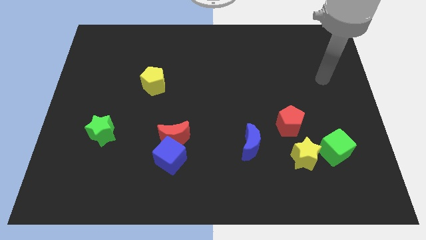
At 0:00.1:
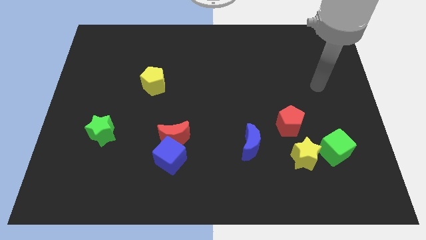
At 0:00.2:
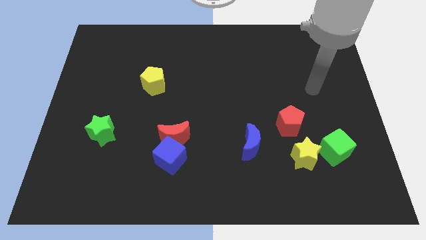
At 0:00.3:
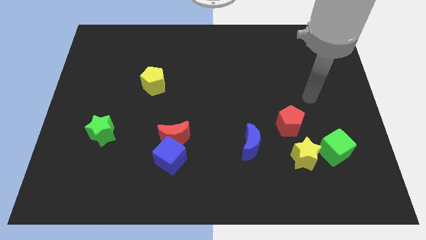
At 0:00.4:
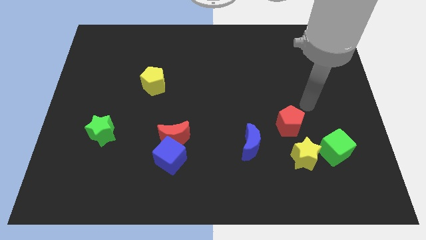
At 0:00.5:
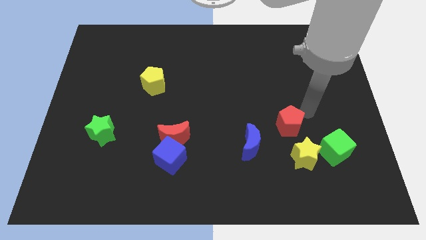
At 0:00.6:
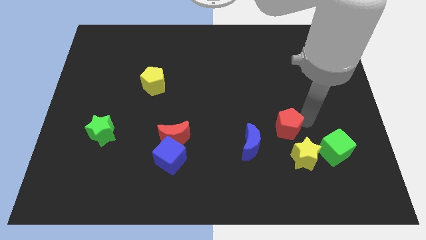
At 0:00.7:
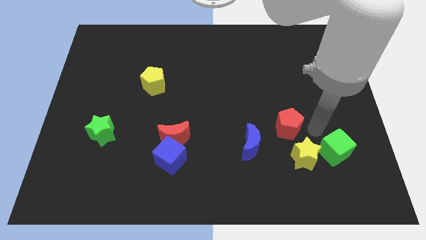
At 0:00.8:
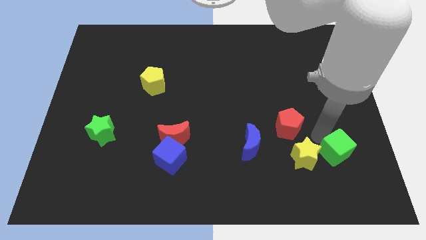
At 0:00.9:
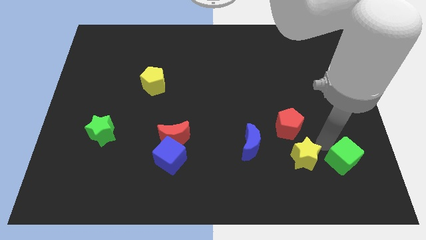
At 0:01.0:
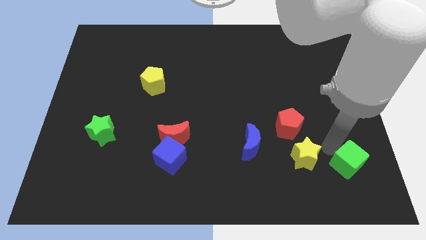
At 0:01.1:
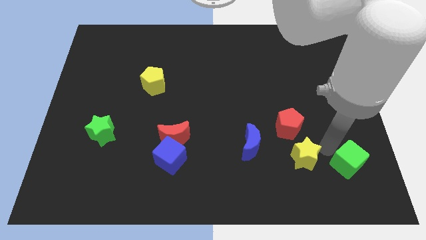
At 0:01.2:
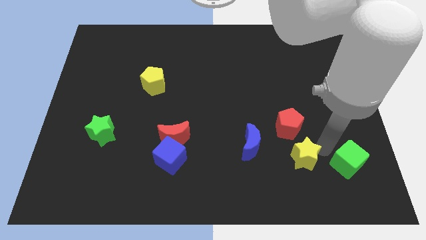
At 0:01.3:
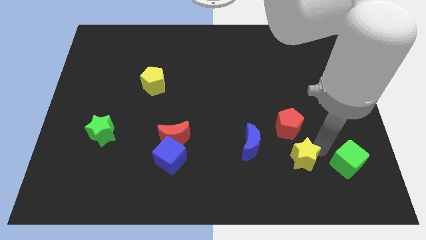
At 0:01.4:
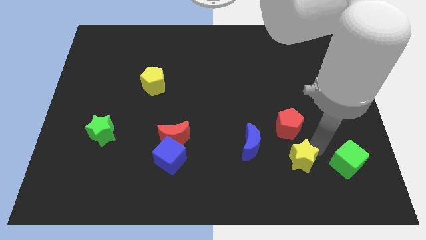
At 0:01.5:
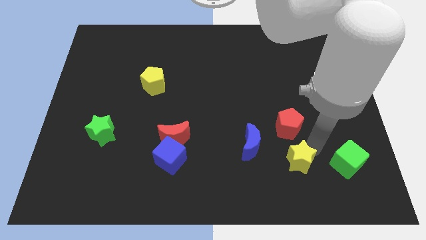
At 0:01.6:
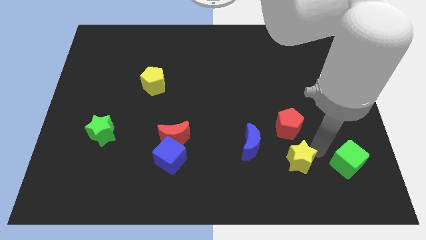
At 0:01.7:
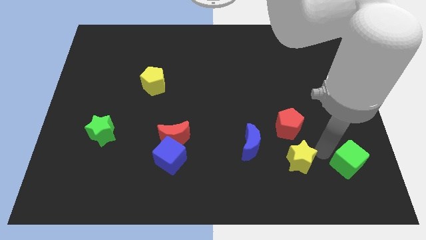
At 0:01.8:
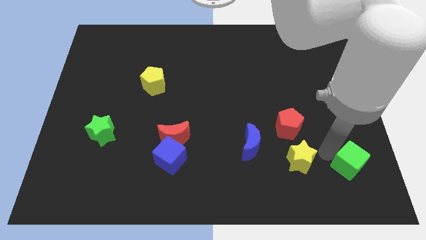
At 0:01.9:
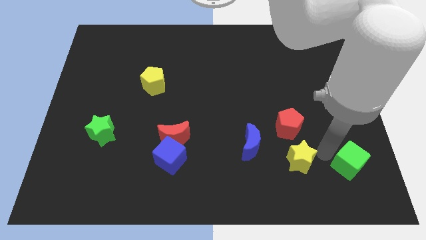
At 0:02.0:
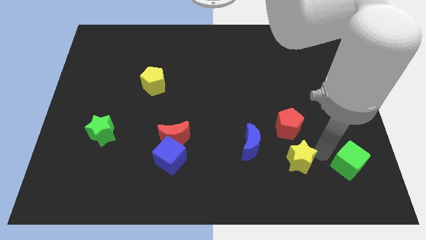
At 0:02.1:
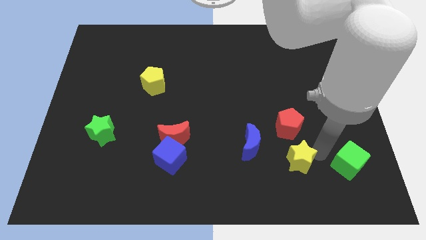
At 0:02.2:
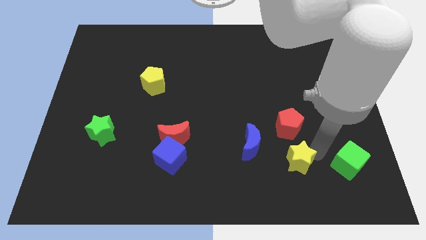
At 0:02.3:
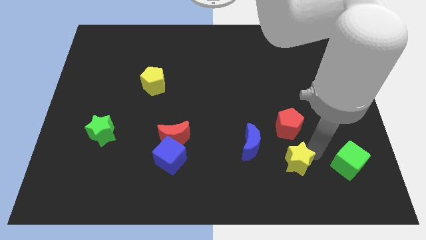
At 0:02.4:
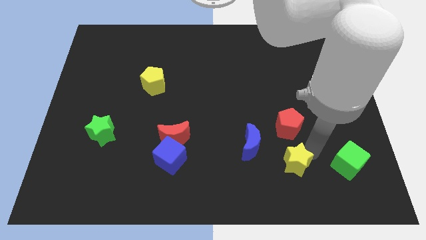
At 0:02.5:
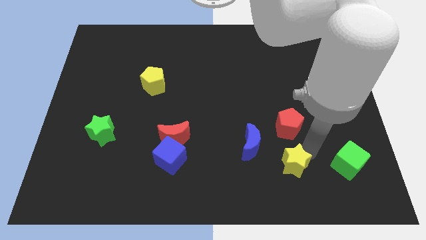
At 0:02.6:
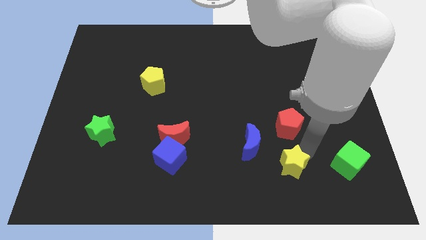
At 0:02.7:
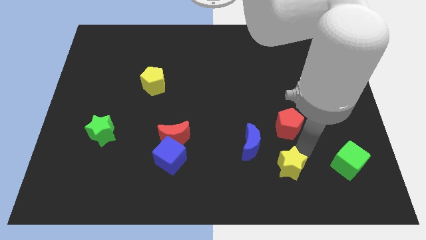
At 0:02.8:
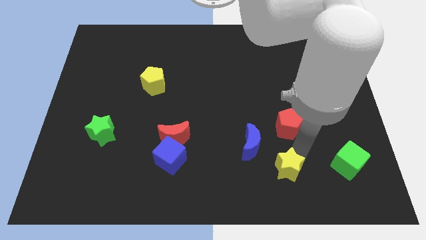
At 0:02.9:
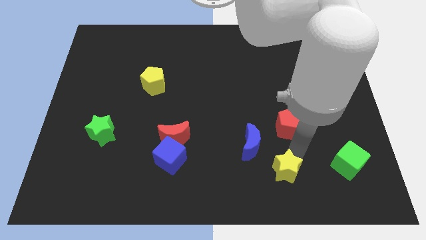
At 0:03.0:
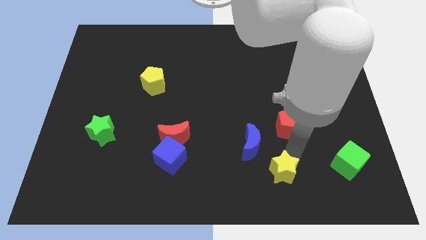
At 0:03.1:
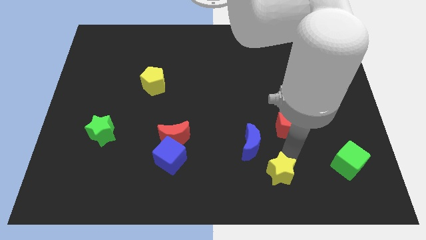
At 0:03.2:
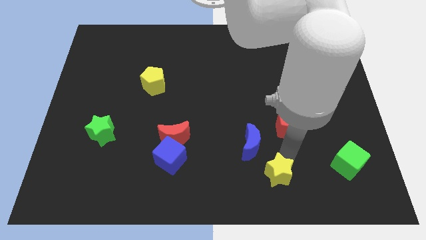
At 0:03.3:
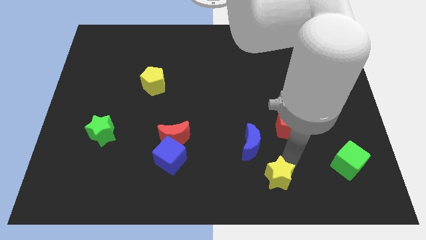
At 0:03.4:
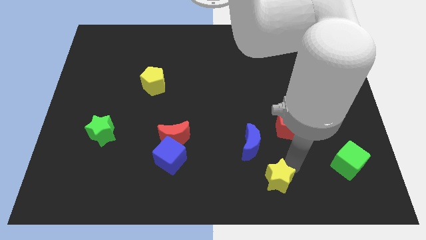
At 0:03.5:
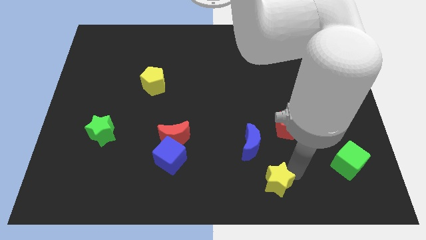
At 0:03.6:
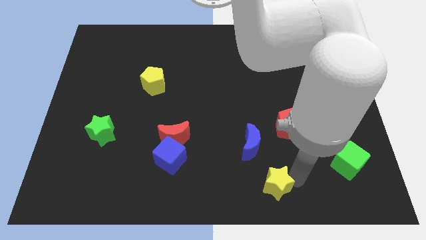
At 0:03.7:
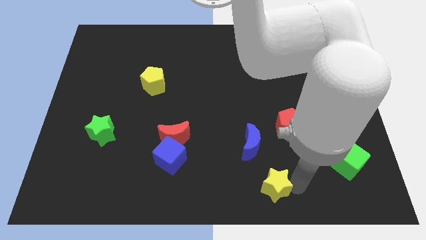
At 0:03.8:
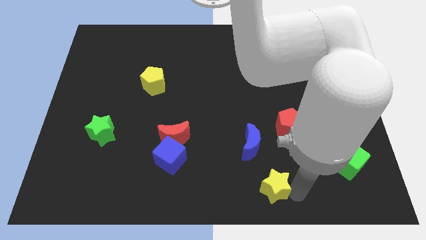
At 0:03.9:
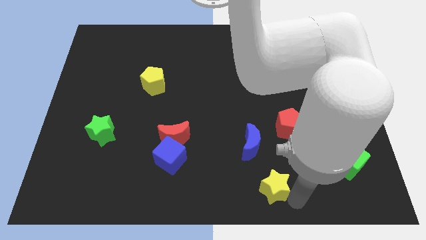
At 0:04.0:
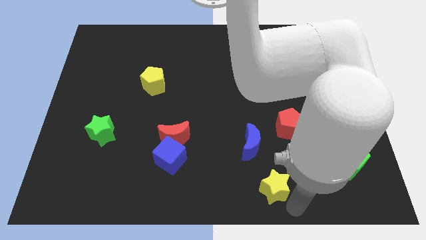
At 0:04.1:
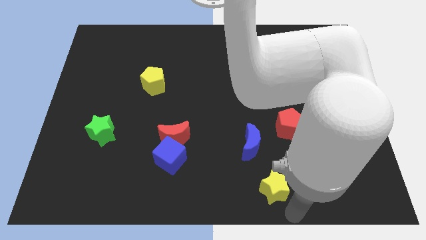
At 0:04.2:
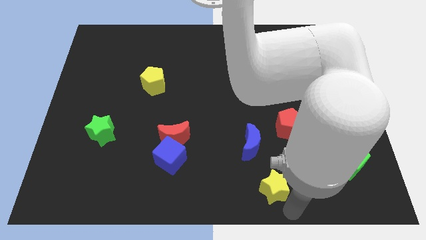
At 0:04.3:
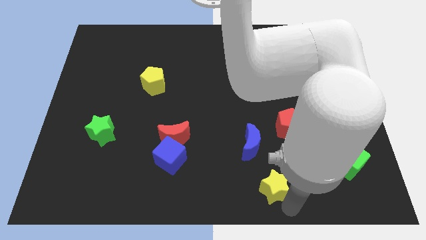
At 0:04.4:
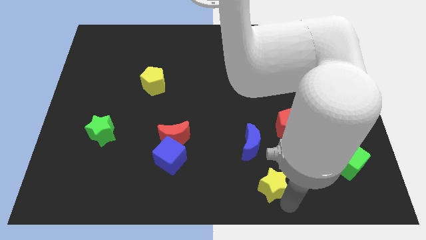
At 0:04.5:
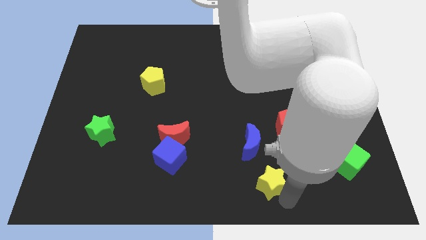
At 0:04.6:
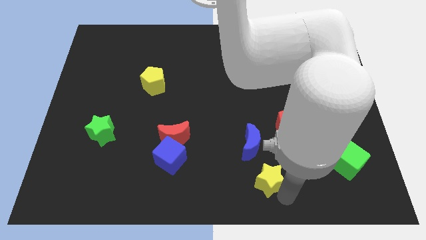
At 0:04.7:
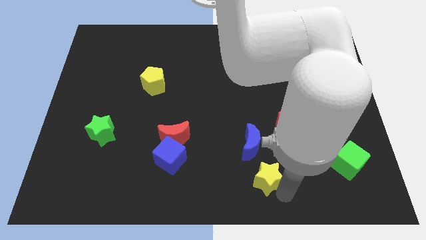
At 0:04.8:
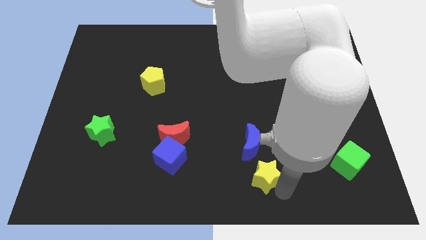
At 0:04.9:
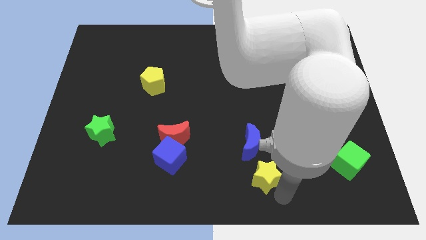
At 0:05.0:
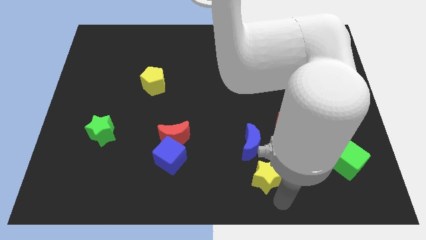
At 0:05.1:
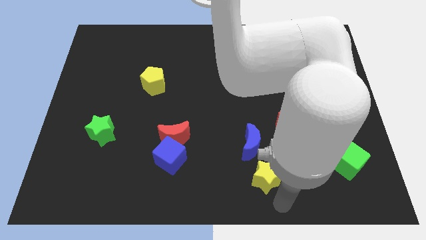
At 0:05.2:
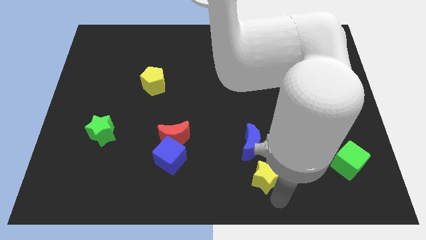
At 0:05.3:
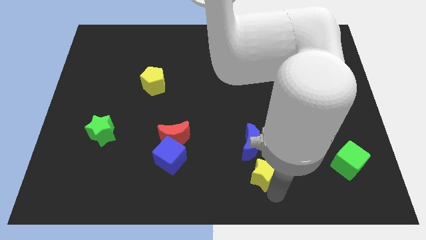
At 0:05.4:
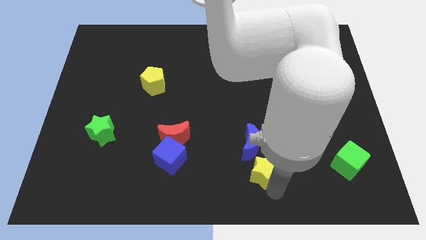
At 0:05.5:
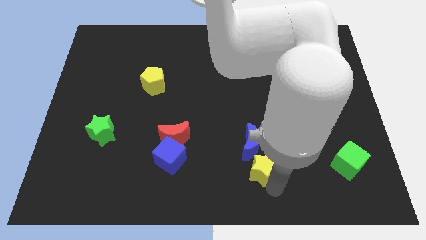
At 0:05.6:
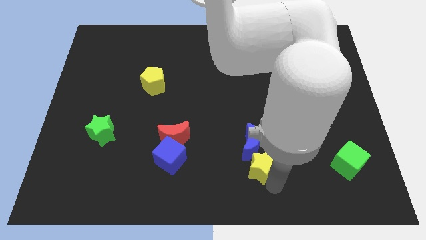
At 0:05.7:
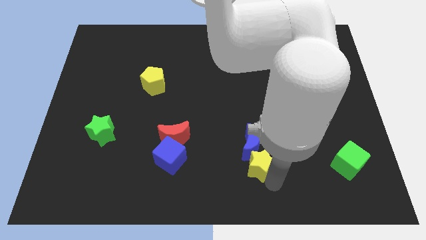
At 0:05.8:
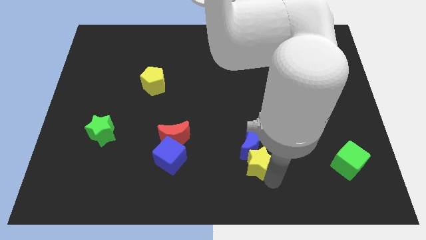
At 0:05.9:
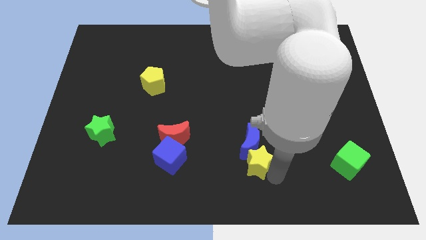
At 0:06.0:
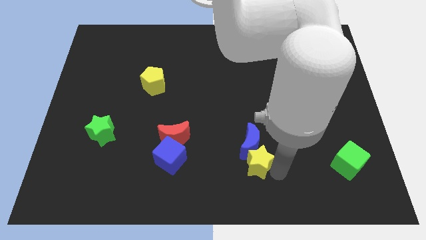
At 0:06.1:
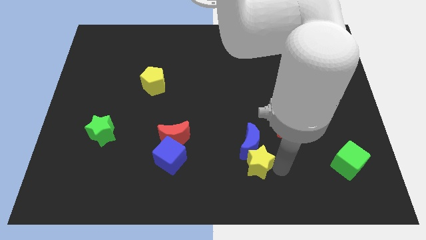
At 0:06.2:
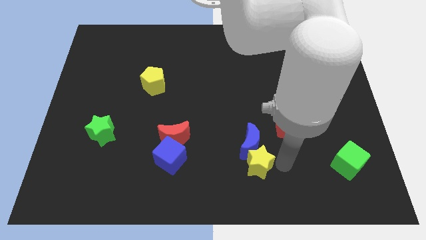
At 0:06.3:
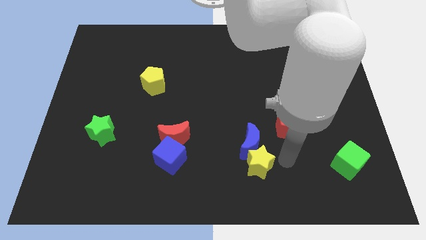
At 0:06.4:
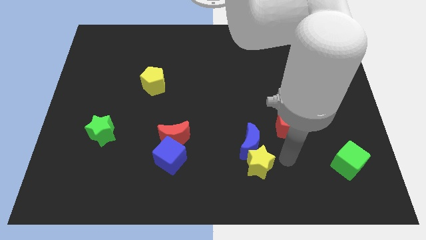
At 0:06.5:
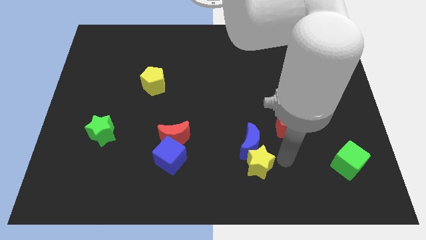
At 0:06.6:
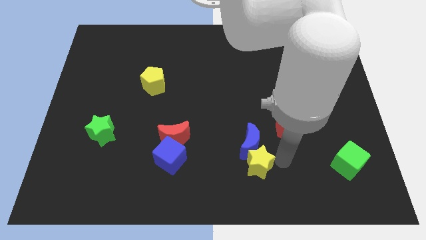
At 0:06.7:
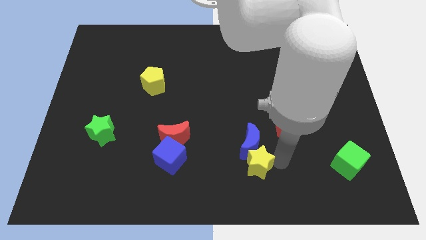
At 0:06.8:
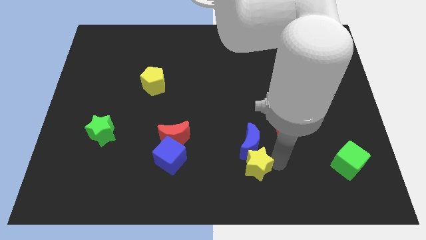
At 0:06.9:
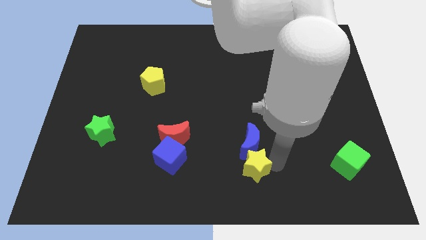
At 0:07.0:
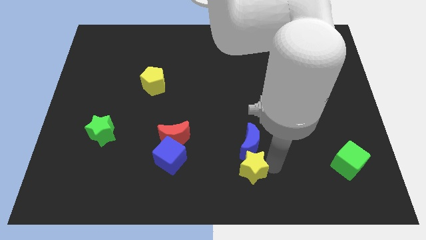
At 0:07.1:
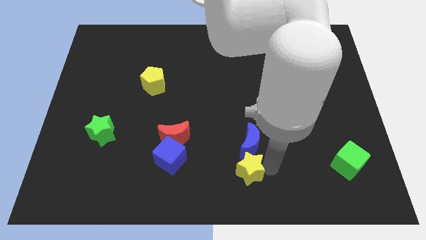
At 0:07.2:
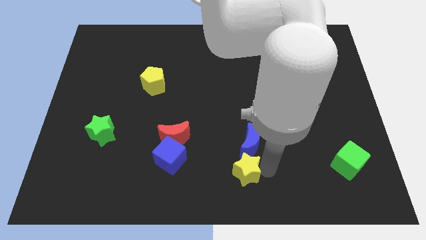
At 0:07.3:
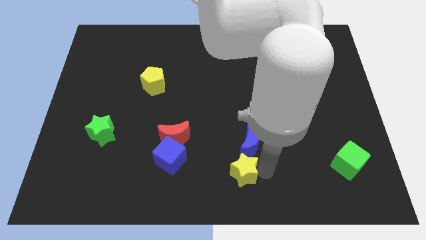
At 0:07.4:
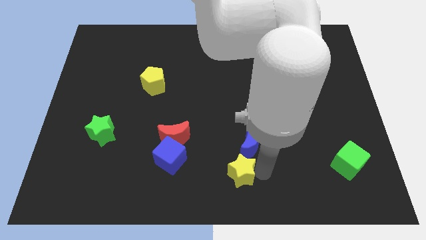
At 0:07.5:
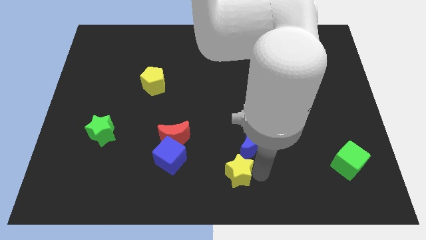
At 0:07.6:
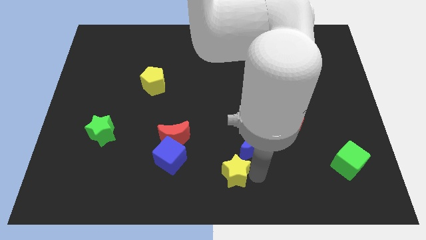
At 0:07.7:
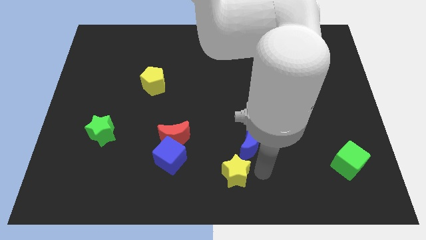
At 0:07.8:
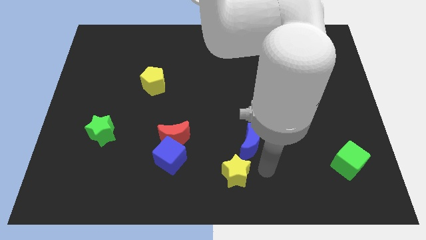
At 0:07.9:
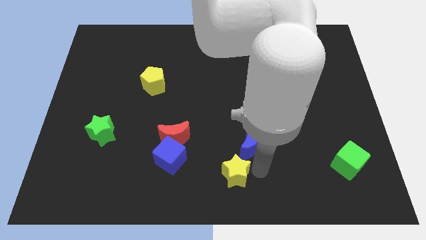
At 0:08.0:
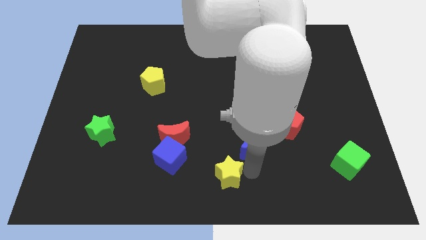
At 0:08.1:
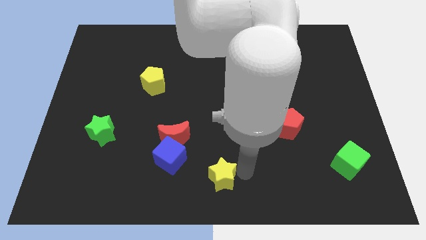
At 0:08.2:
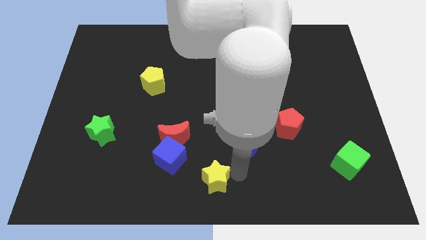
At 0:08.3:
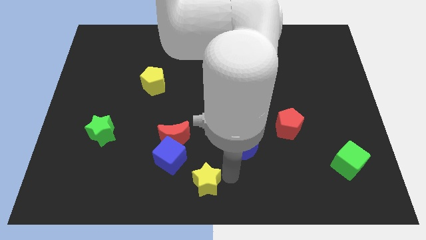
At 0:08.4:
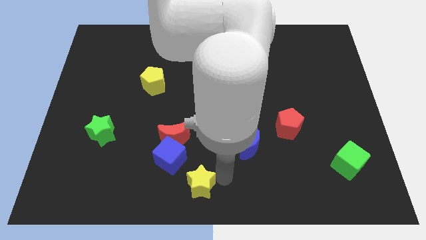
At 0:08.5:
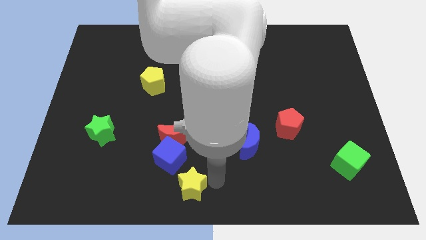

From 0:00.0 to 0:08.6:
put the yellow star to the bottom side of the red moon
